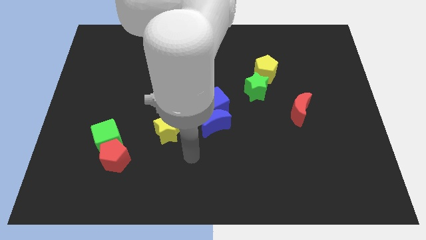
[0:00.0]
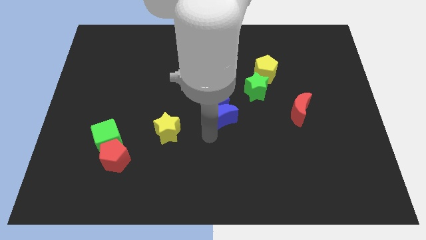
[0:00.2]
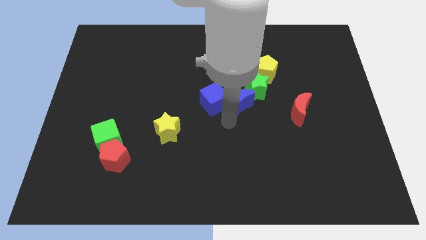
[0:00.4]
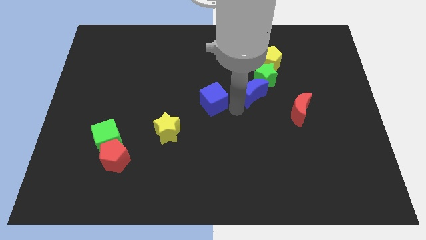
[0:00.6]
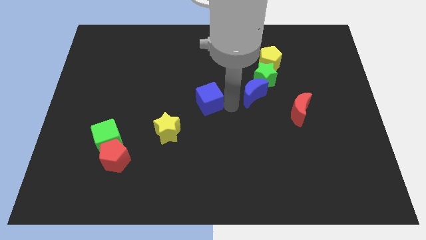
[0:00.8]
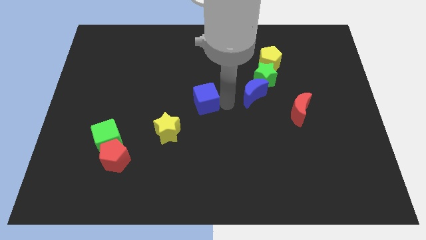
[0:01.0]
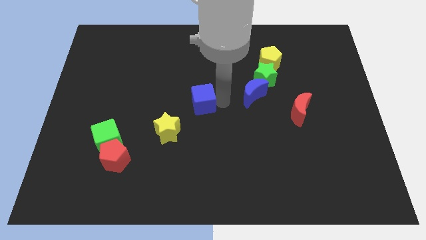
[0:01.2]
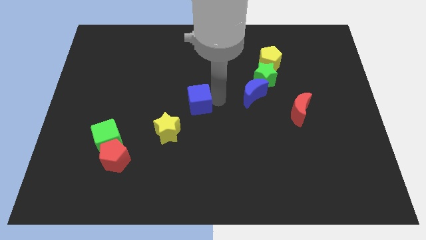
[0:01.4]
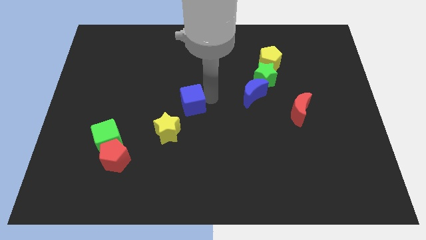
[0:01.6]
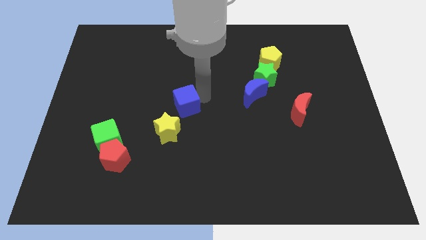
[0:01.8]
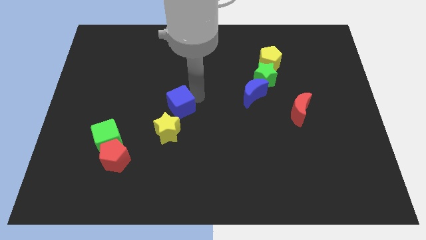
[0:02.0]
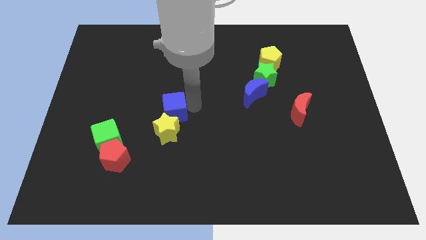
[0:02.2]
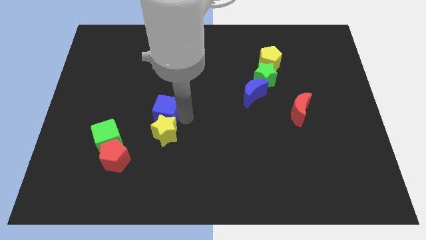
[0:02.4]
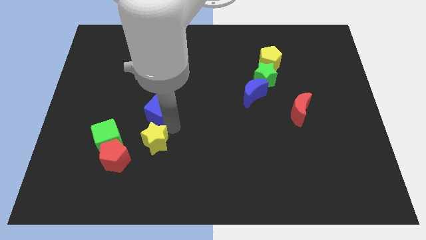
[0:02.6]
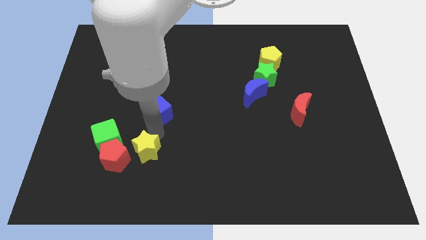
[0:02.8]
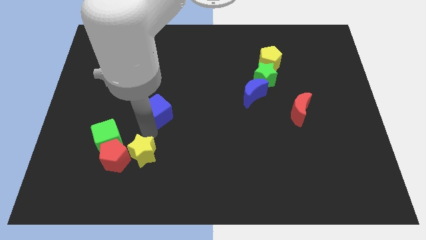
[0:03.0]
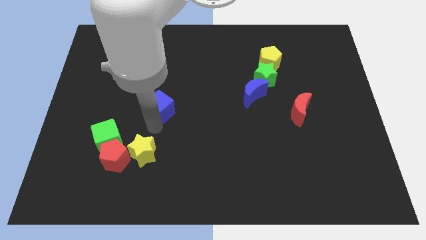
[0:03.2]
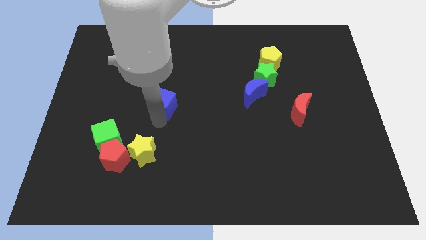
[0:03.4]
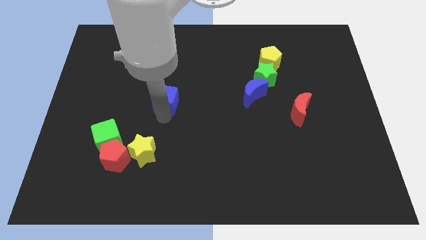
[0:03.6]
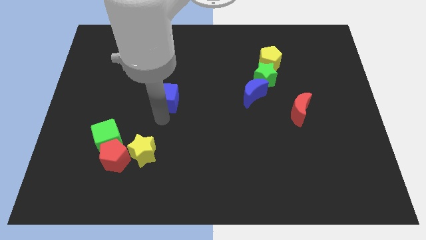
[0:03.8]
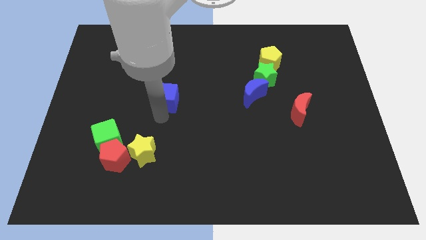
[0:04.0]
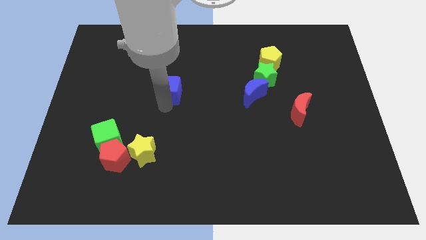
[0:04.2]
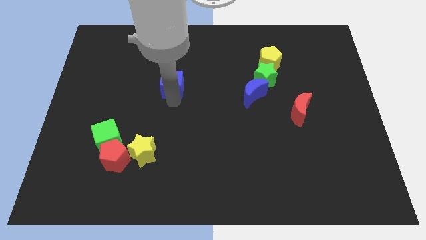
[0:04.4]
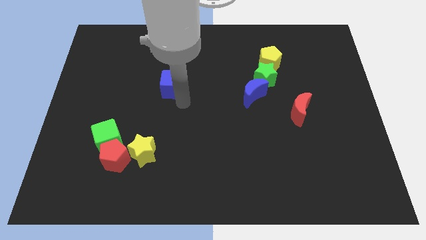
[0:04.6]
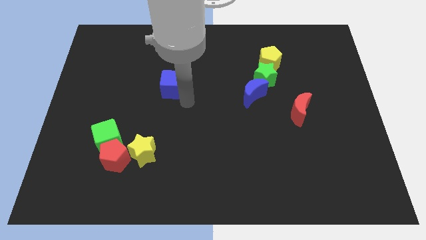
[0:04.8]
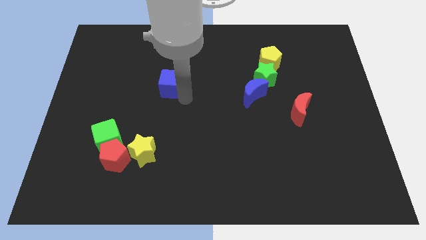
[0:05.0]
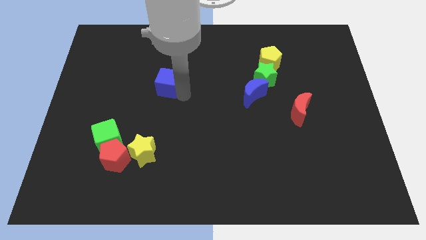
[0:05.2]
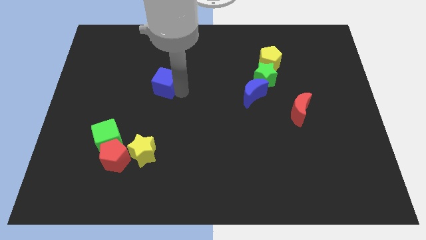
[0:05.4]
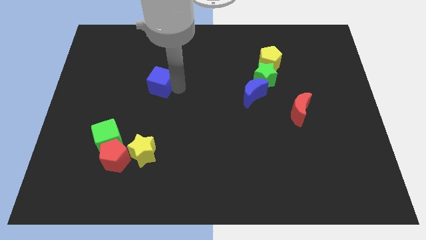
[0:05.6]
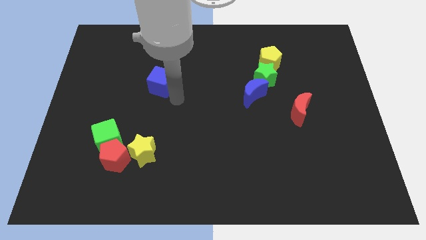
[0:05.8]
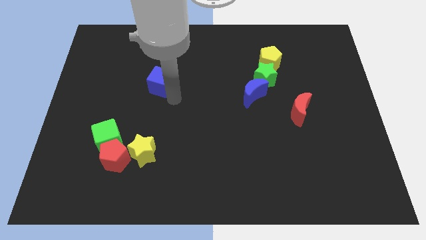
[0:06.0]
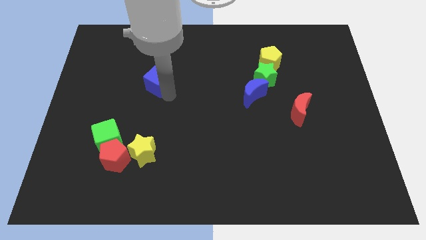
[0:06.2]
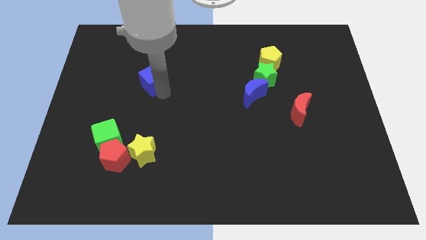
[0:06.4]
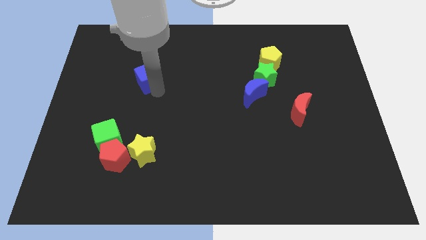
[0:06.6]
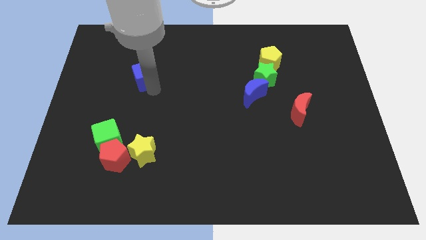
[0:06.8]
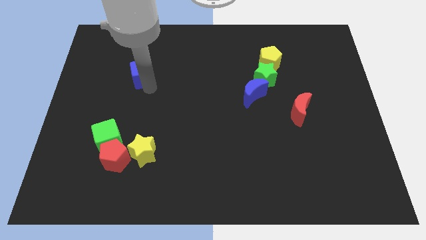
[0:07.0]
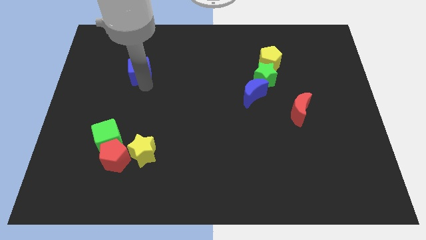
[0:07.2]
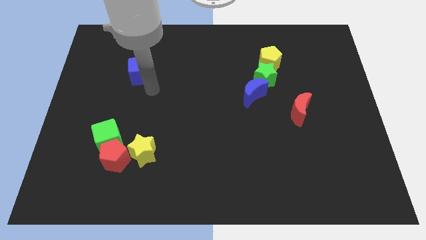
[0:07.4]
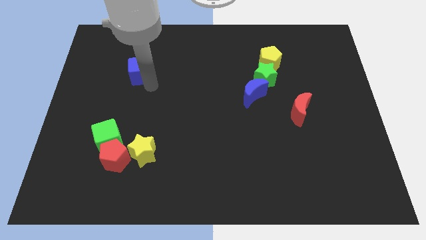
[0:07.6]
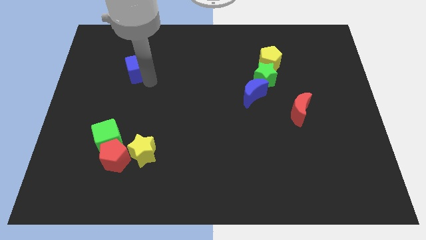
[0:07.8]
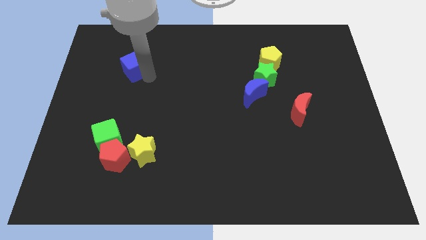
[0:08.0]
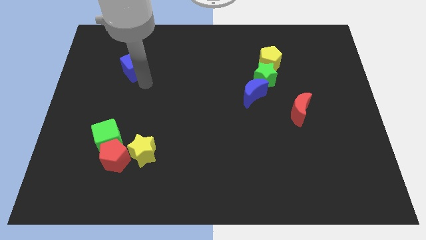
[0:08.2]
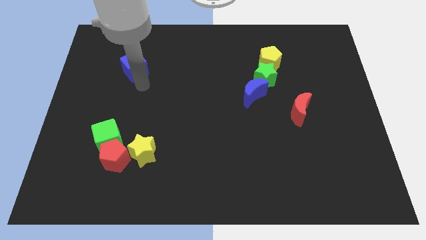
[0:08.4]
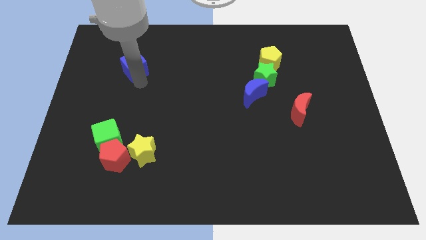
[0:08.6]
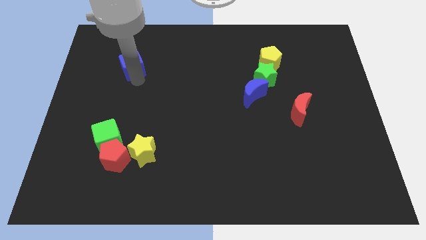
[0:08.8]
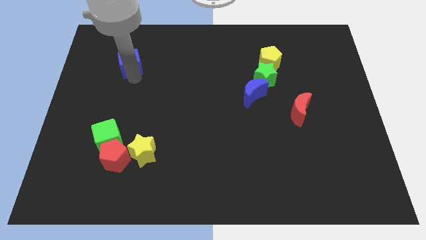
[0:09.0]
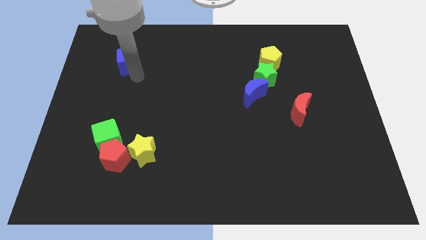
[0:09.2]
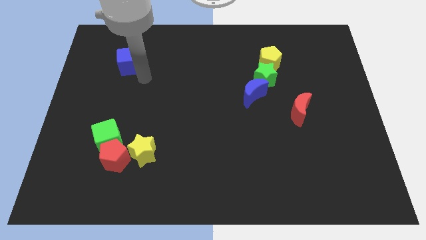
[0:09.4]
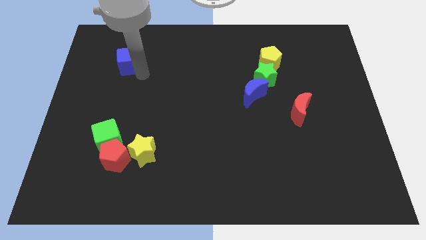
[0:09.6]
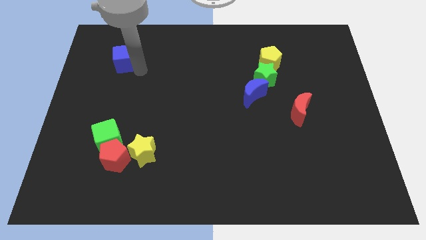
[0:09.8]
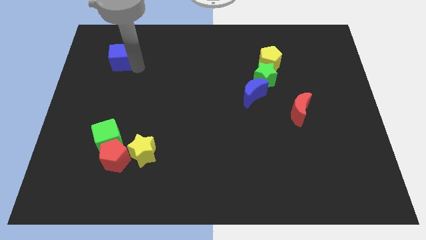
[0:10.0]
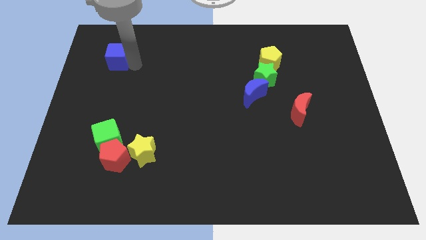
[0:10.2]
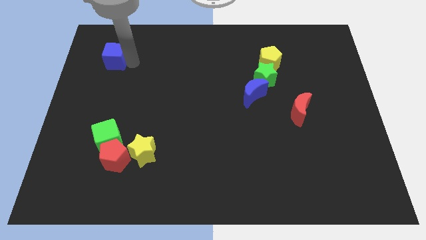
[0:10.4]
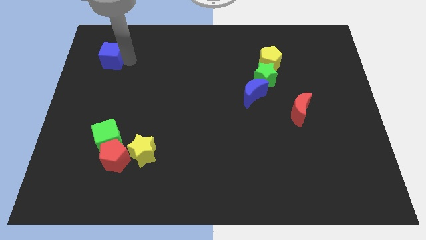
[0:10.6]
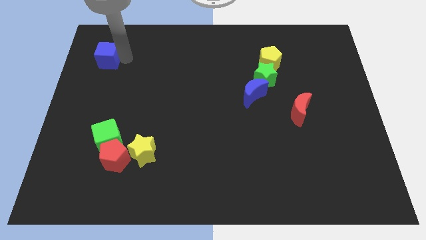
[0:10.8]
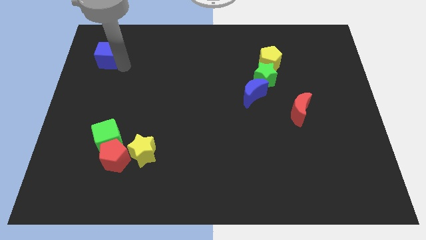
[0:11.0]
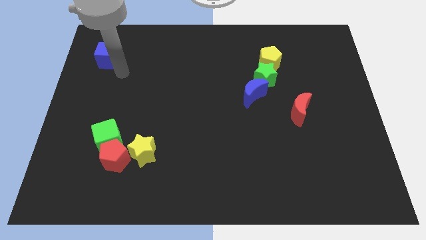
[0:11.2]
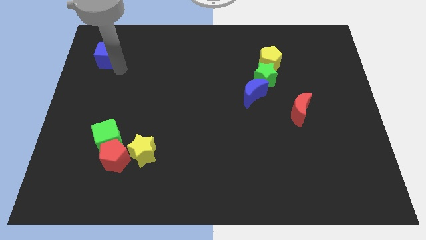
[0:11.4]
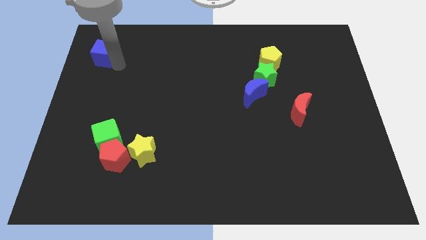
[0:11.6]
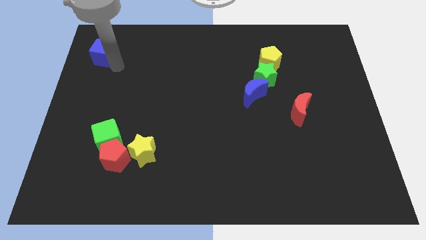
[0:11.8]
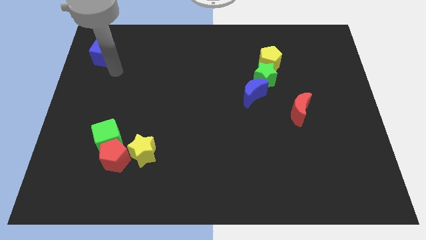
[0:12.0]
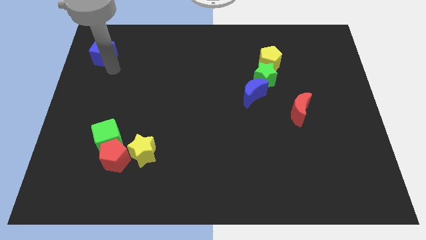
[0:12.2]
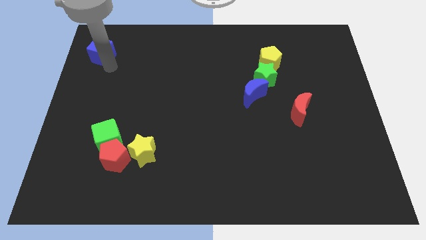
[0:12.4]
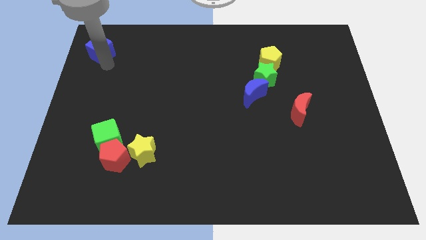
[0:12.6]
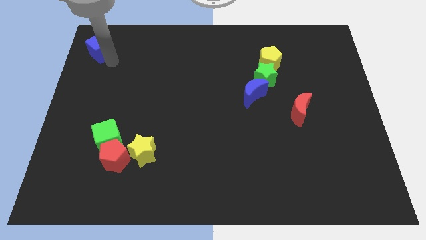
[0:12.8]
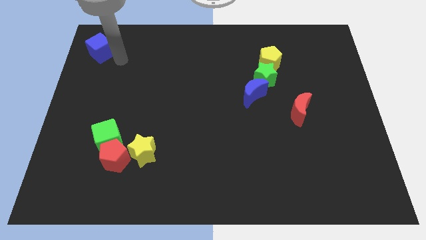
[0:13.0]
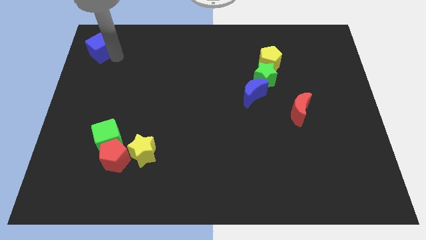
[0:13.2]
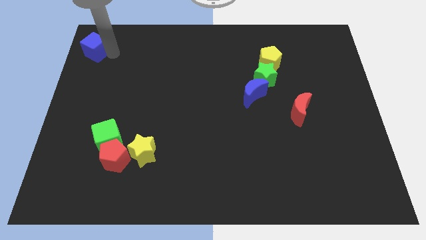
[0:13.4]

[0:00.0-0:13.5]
move the blue cube to the upper left corner
